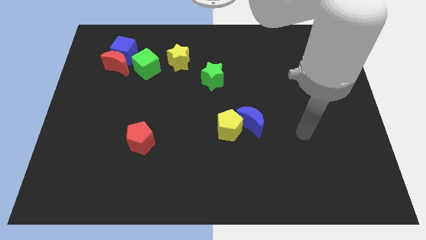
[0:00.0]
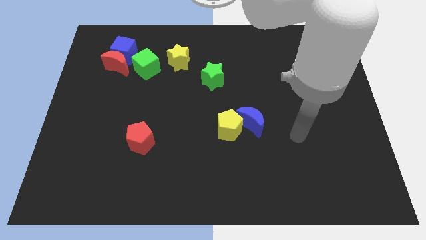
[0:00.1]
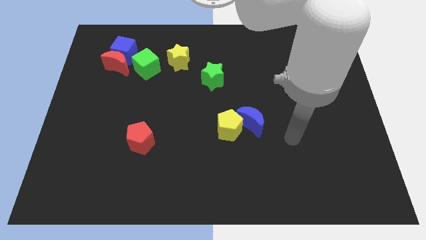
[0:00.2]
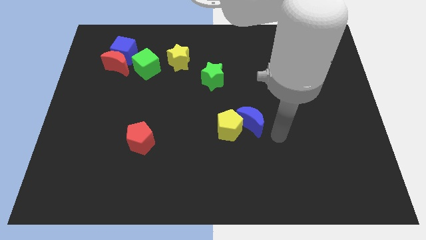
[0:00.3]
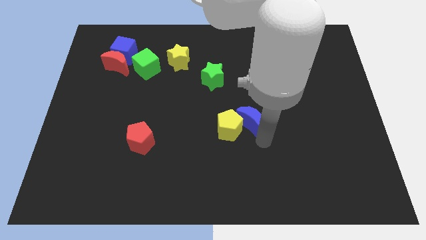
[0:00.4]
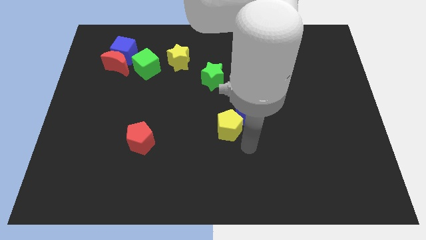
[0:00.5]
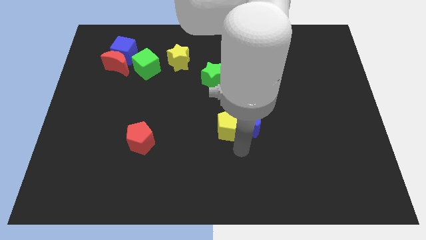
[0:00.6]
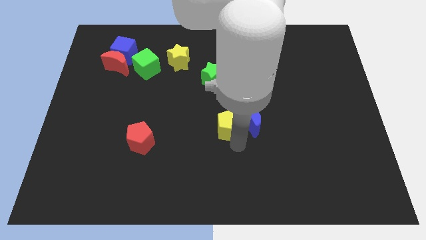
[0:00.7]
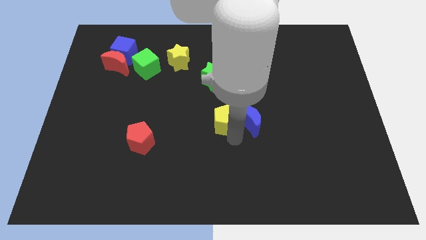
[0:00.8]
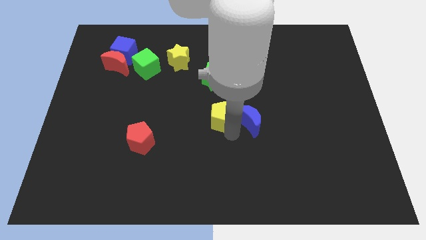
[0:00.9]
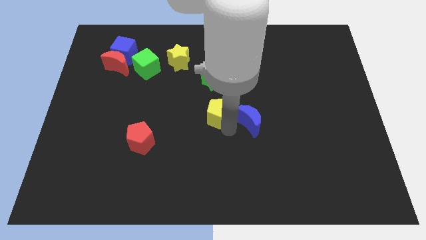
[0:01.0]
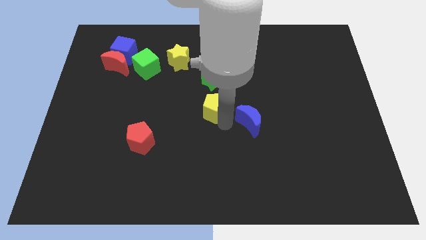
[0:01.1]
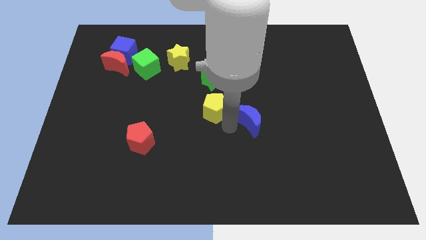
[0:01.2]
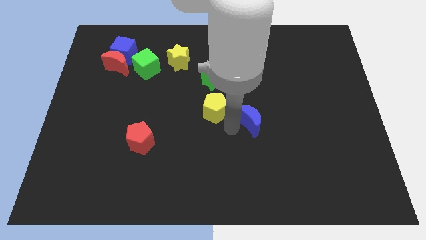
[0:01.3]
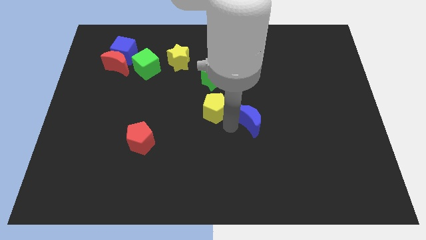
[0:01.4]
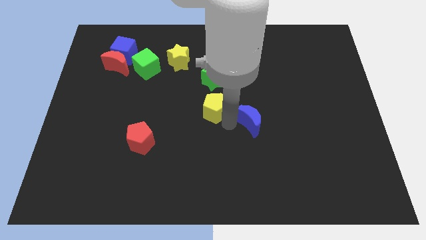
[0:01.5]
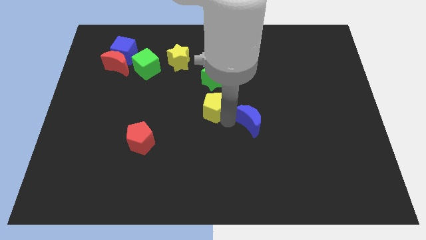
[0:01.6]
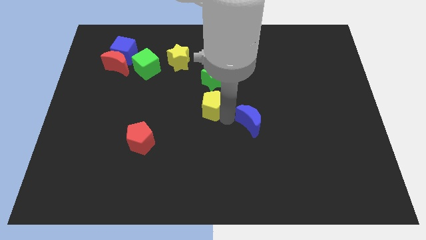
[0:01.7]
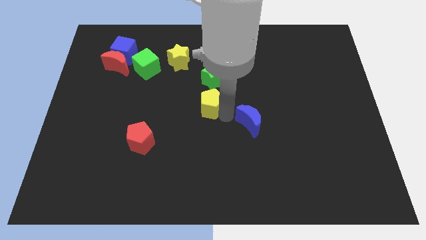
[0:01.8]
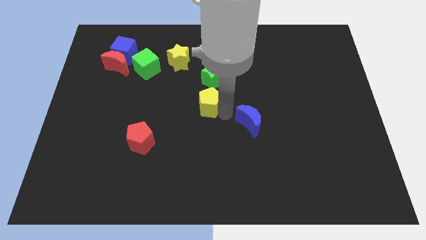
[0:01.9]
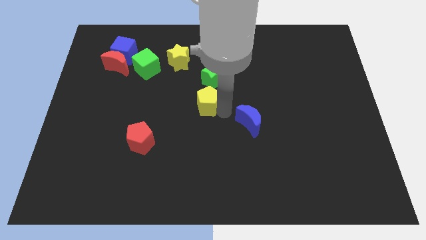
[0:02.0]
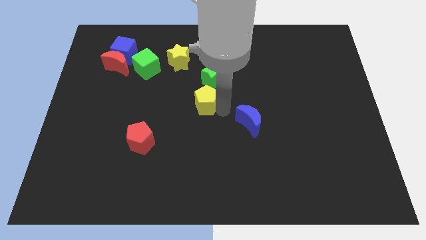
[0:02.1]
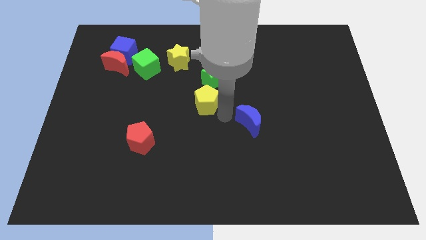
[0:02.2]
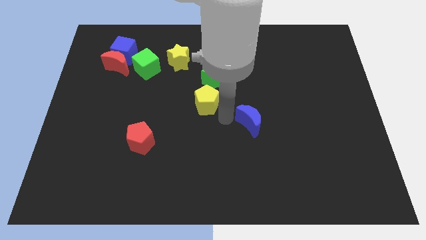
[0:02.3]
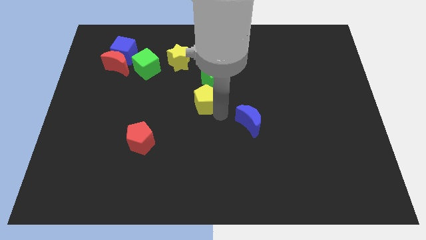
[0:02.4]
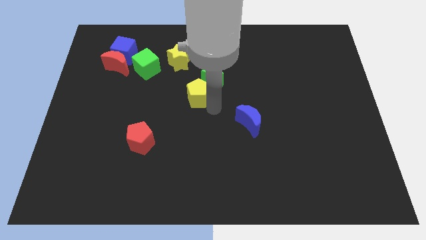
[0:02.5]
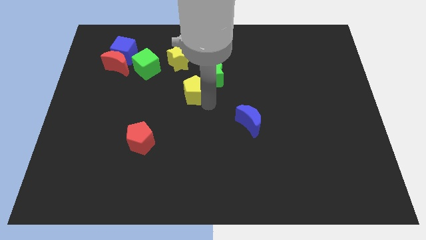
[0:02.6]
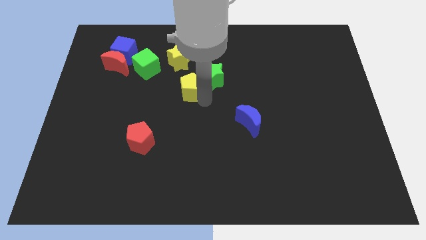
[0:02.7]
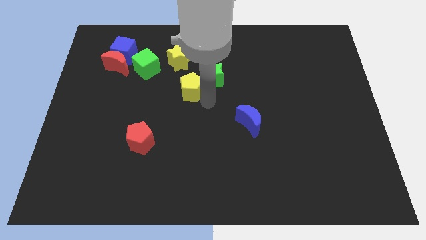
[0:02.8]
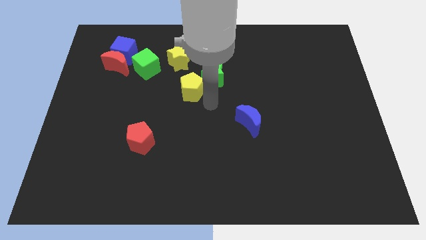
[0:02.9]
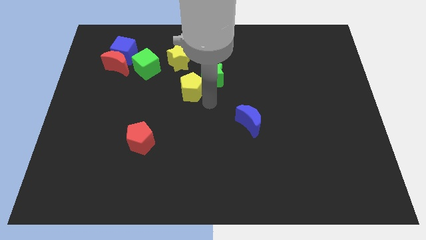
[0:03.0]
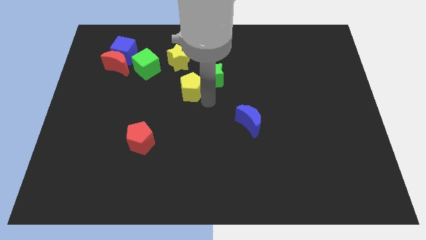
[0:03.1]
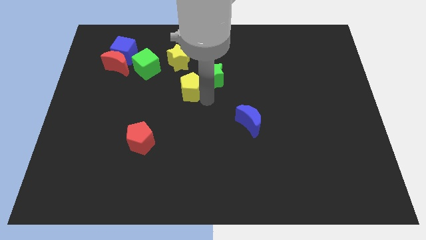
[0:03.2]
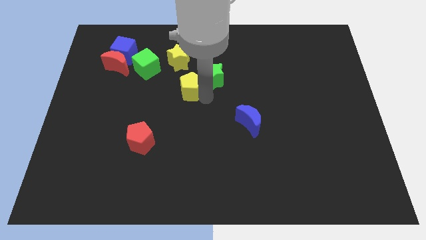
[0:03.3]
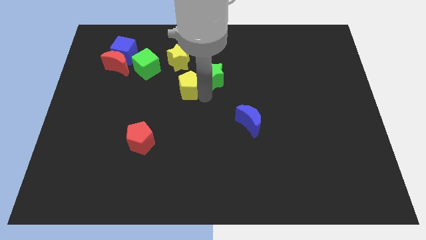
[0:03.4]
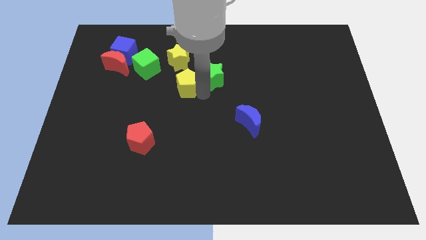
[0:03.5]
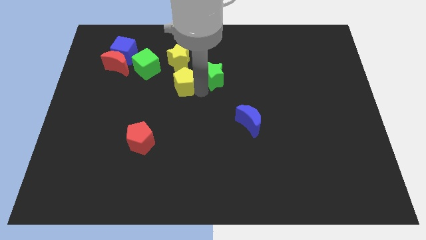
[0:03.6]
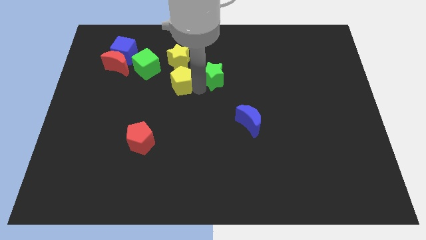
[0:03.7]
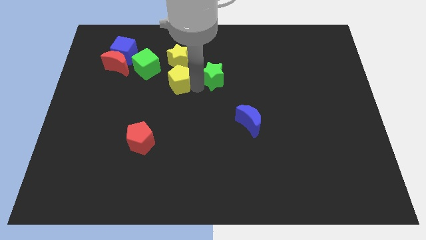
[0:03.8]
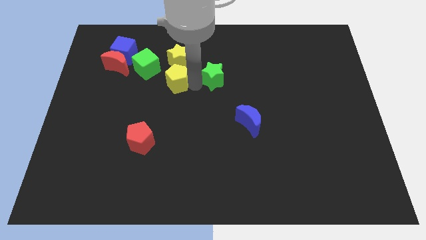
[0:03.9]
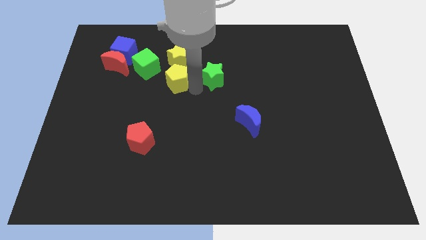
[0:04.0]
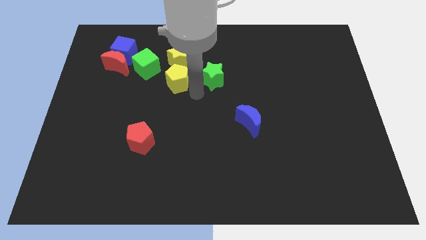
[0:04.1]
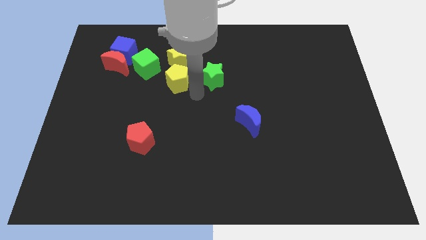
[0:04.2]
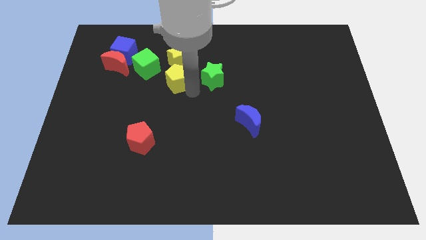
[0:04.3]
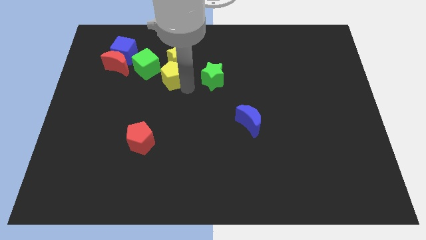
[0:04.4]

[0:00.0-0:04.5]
push the yellow pentagon diagonally up and left

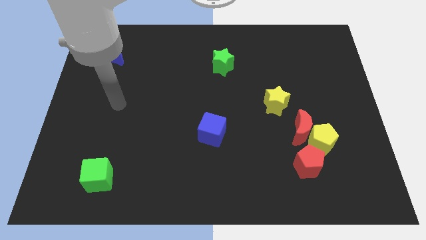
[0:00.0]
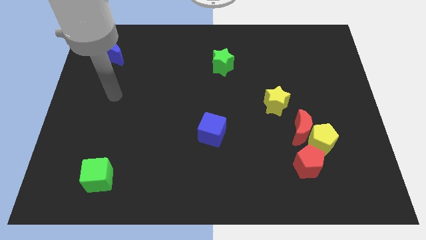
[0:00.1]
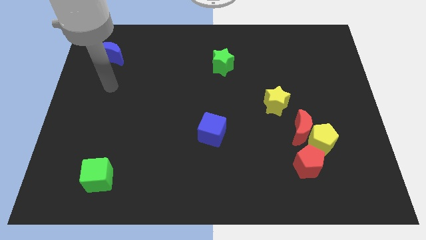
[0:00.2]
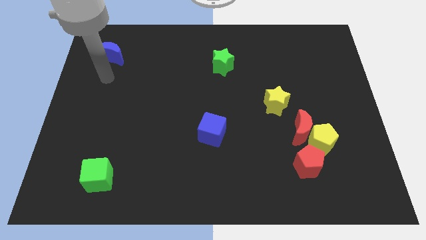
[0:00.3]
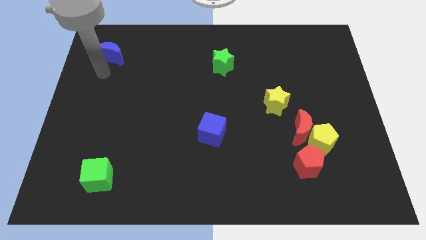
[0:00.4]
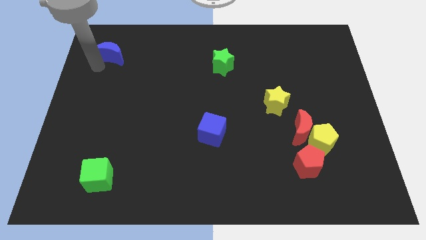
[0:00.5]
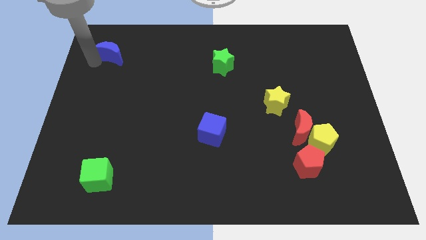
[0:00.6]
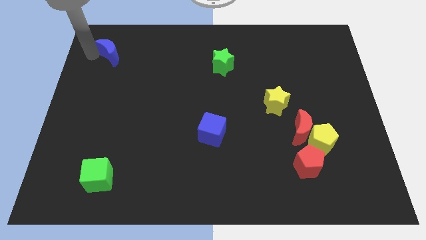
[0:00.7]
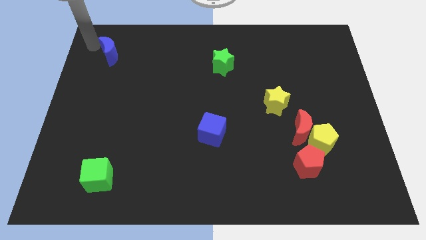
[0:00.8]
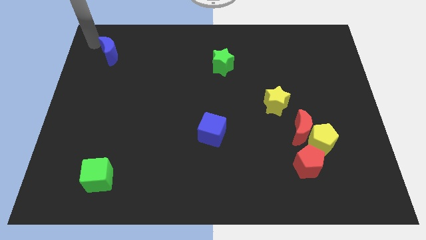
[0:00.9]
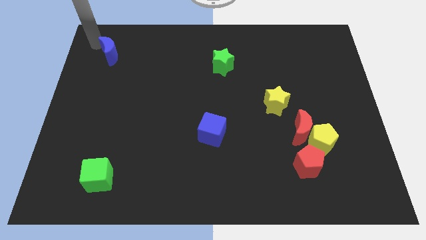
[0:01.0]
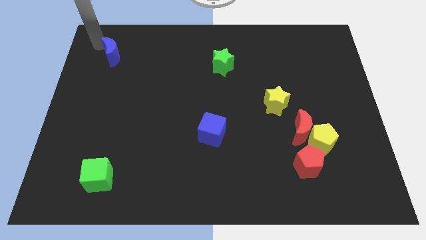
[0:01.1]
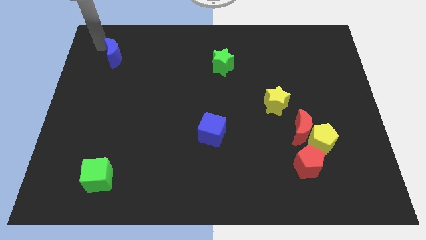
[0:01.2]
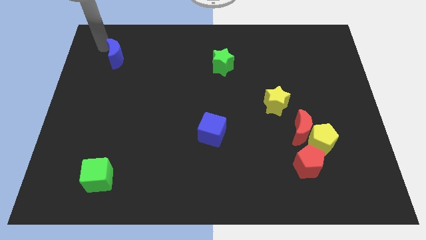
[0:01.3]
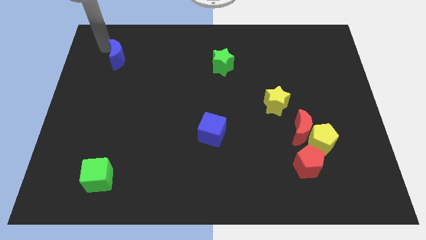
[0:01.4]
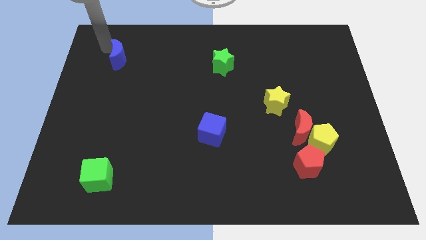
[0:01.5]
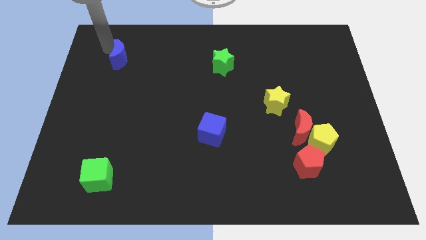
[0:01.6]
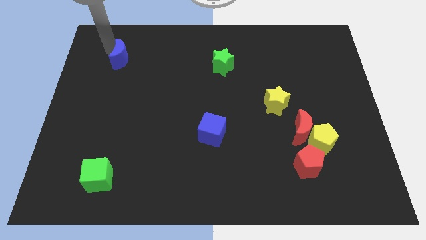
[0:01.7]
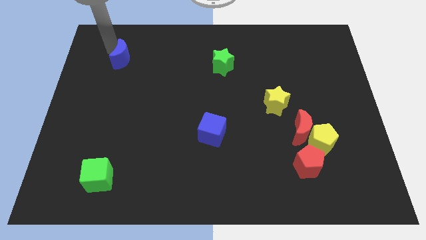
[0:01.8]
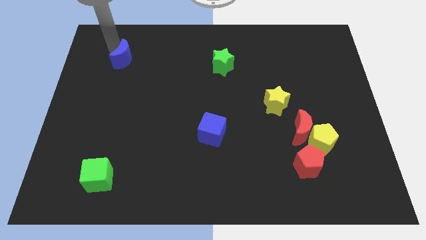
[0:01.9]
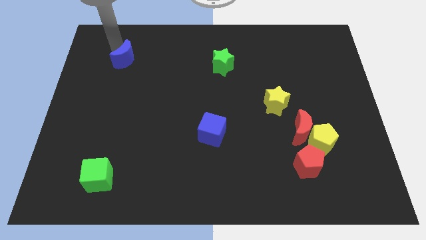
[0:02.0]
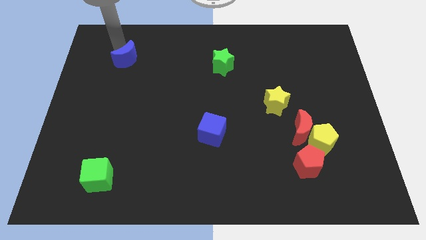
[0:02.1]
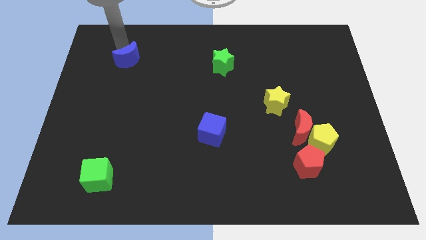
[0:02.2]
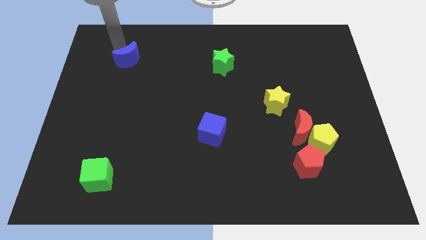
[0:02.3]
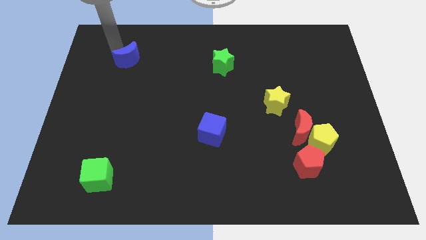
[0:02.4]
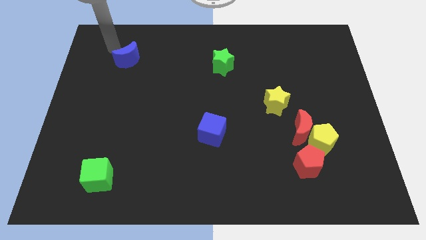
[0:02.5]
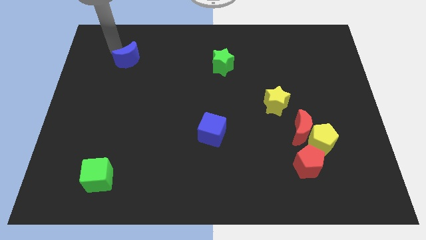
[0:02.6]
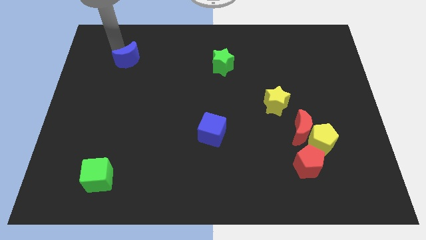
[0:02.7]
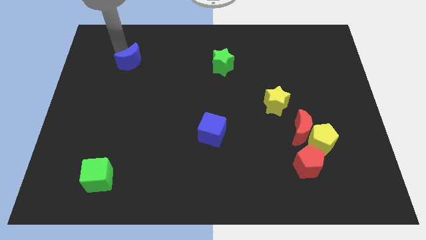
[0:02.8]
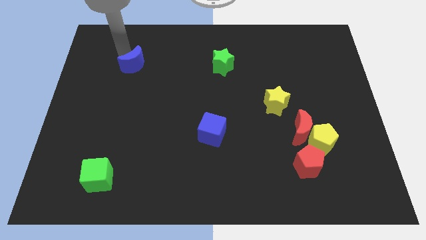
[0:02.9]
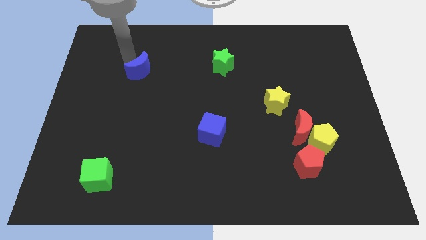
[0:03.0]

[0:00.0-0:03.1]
slide the blue moon slightly diagonally downwards and to the right

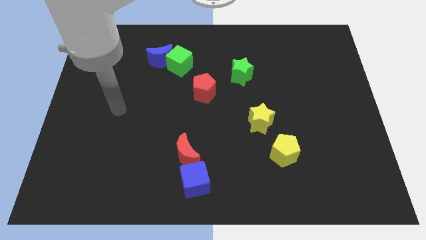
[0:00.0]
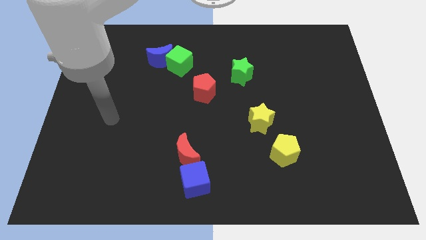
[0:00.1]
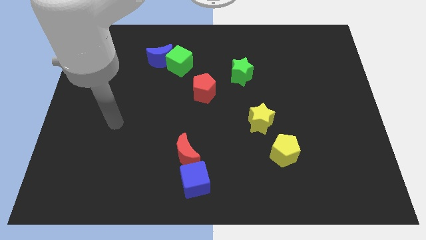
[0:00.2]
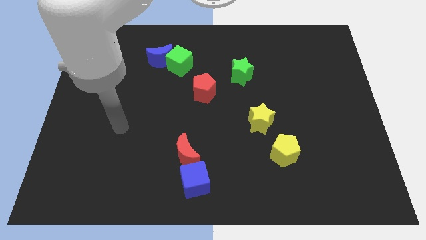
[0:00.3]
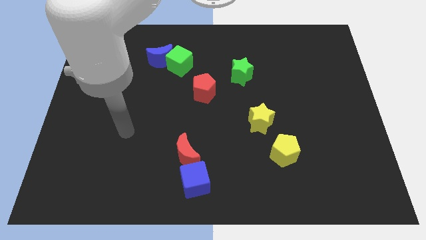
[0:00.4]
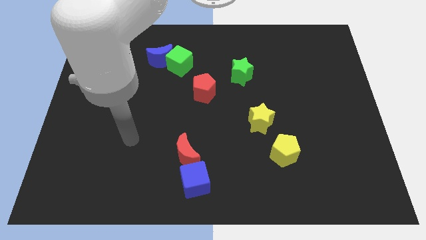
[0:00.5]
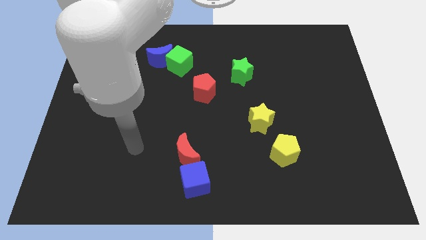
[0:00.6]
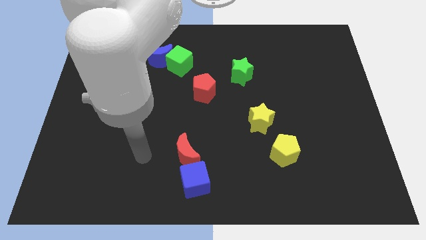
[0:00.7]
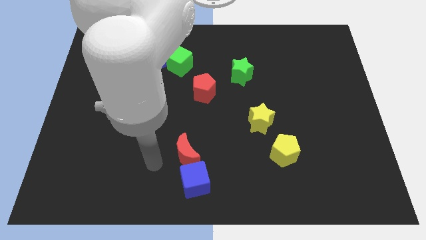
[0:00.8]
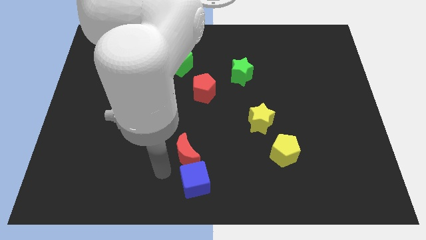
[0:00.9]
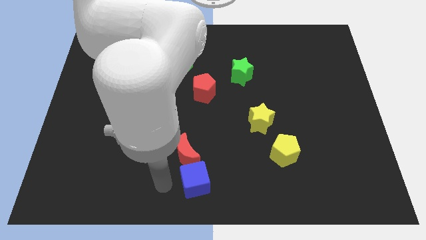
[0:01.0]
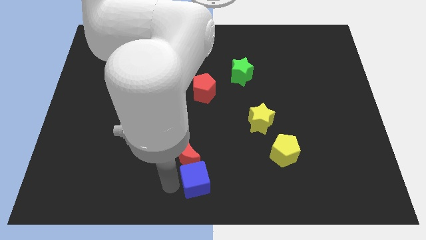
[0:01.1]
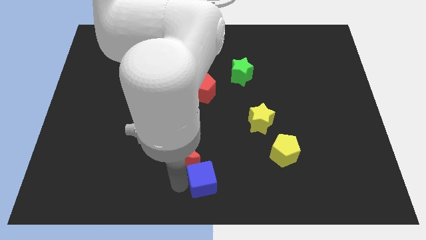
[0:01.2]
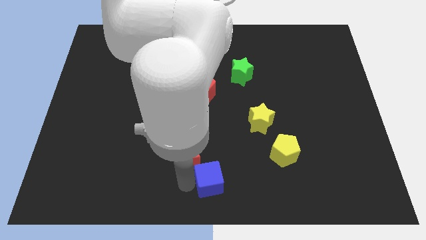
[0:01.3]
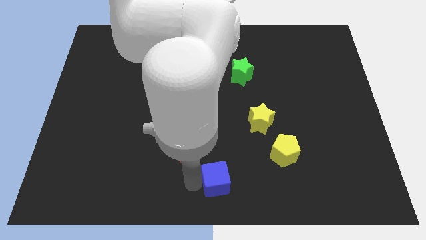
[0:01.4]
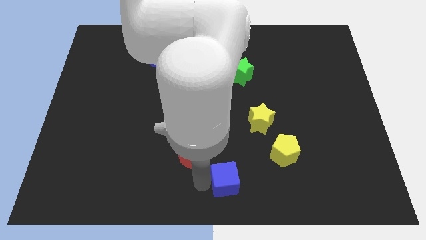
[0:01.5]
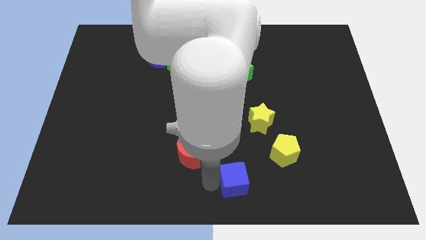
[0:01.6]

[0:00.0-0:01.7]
push the blue cube slightly to the right
